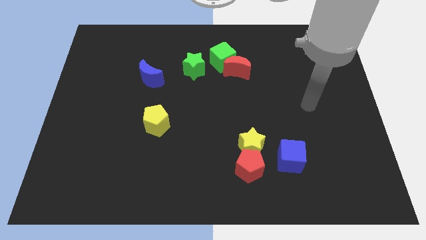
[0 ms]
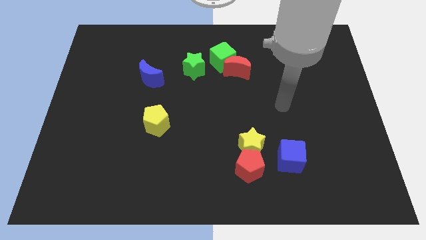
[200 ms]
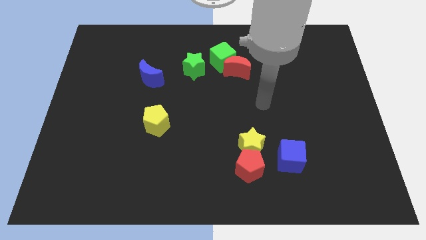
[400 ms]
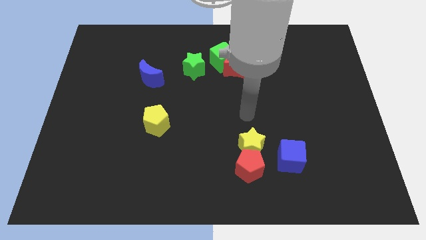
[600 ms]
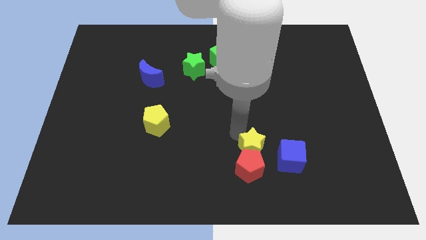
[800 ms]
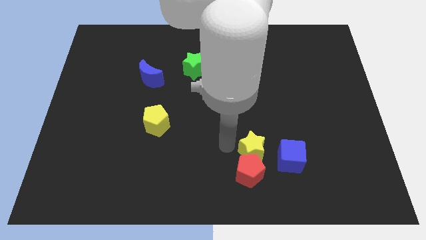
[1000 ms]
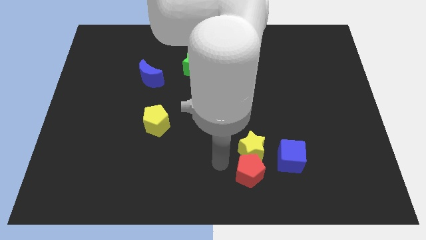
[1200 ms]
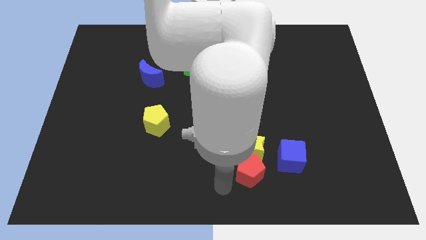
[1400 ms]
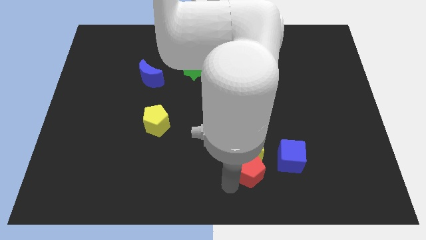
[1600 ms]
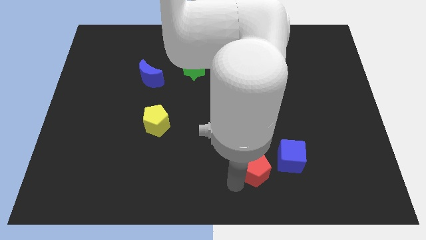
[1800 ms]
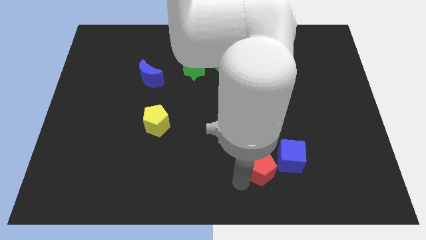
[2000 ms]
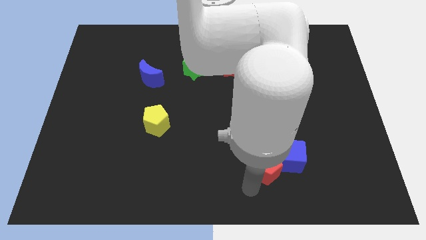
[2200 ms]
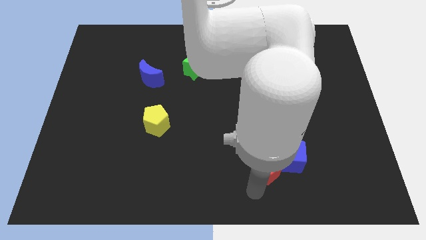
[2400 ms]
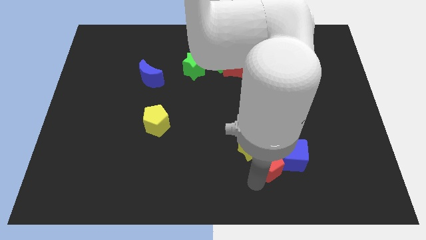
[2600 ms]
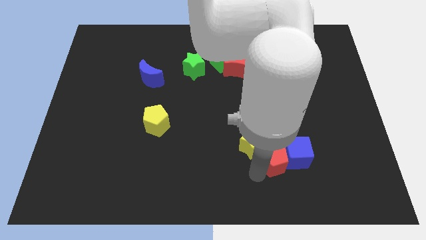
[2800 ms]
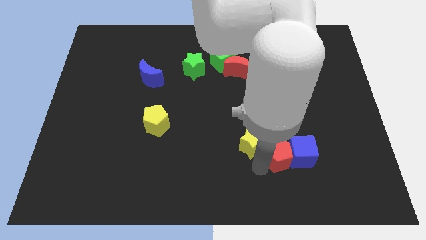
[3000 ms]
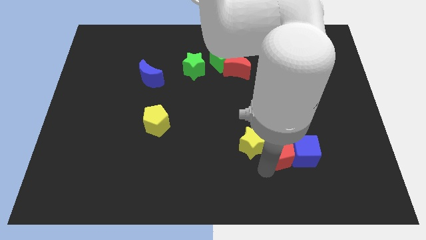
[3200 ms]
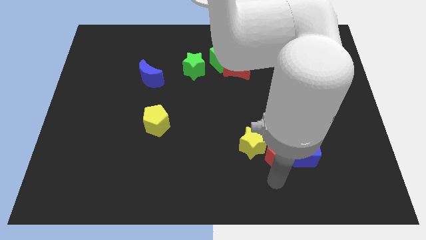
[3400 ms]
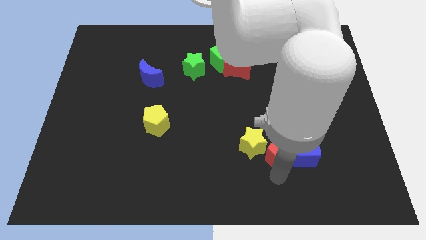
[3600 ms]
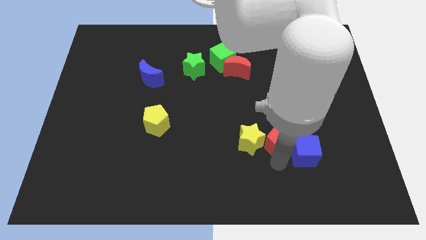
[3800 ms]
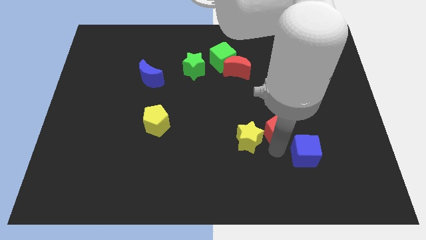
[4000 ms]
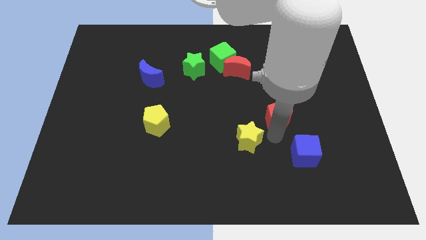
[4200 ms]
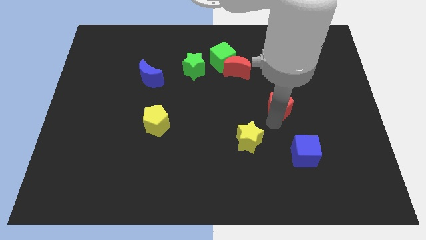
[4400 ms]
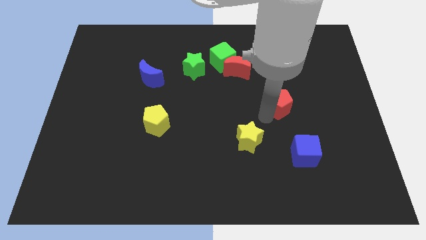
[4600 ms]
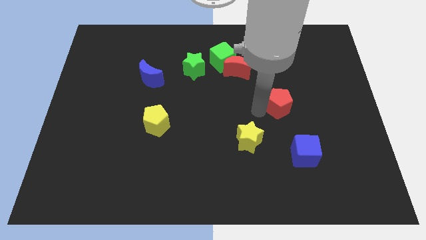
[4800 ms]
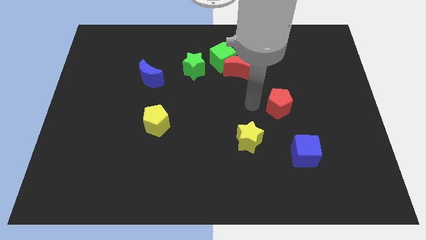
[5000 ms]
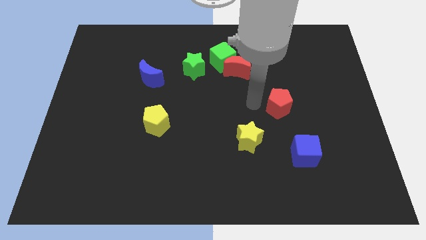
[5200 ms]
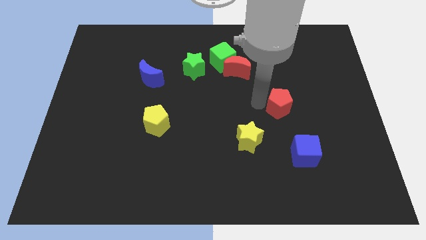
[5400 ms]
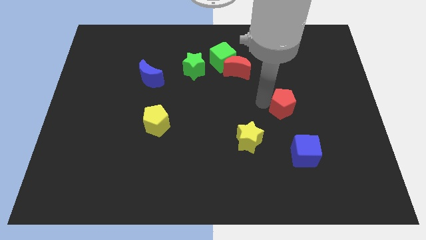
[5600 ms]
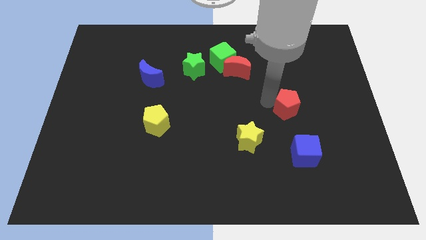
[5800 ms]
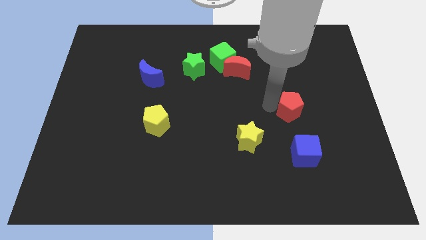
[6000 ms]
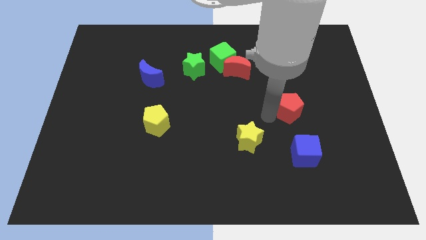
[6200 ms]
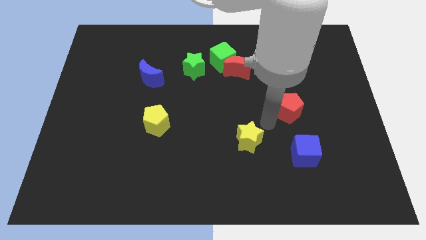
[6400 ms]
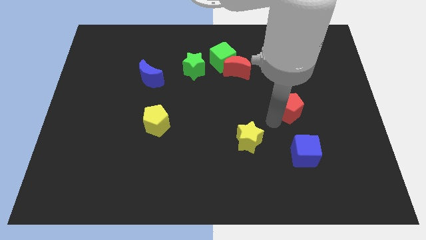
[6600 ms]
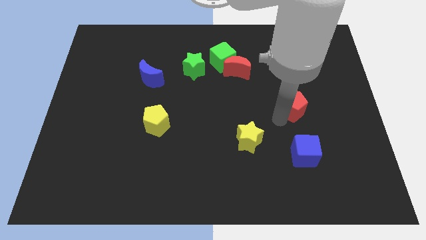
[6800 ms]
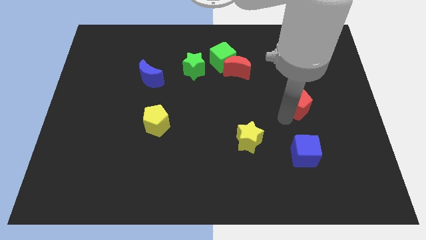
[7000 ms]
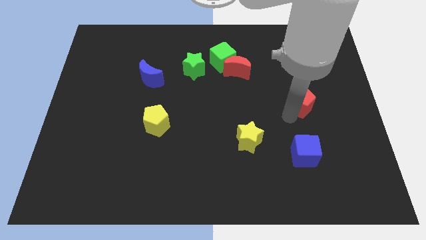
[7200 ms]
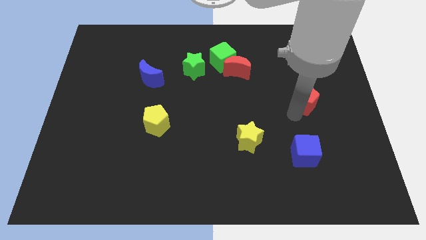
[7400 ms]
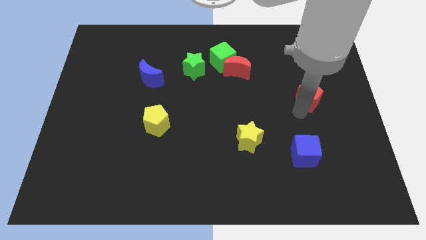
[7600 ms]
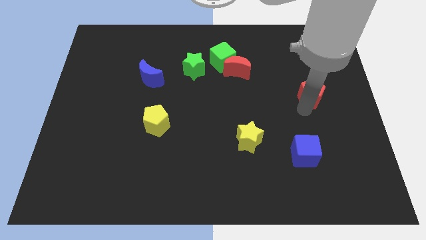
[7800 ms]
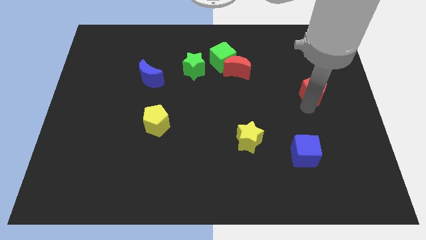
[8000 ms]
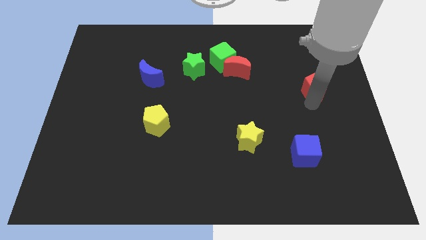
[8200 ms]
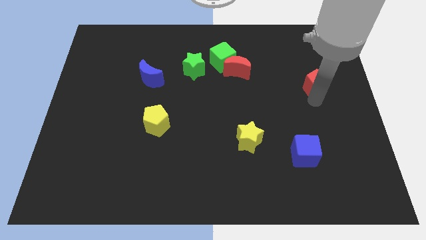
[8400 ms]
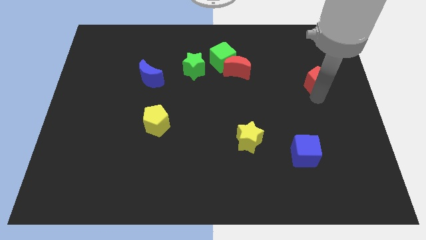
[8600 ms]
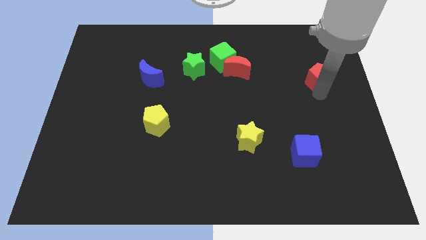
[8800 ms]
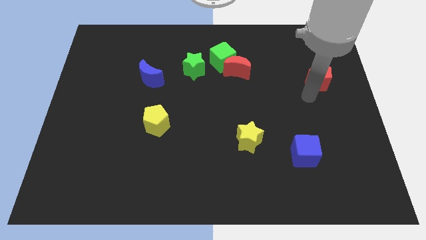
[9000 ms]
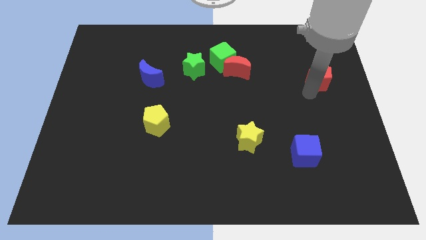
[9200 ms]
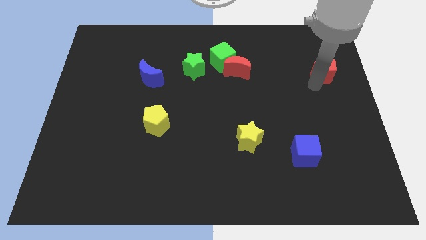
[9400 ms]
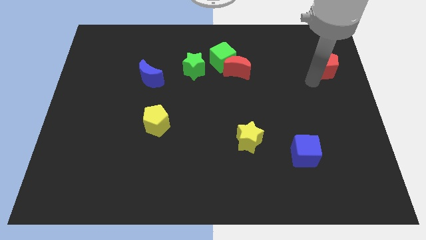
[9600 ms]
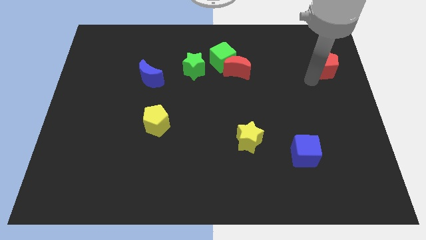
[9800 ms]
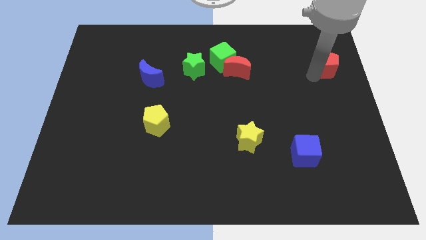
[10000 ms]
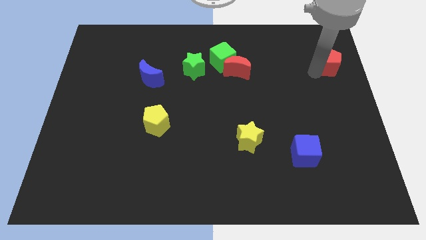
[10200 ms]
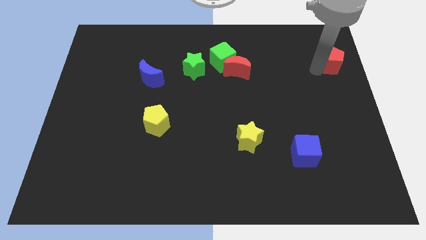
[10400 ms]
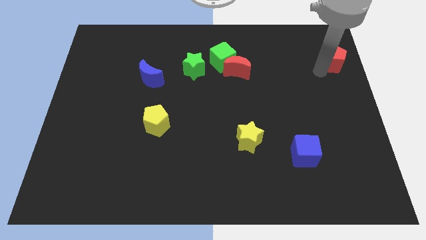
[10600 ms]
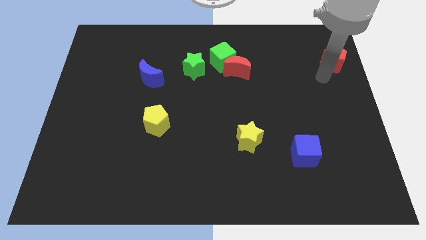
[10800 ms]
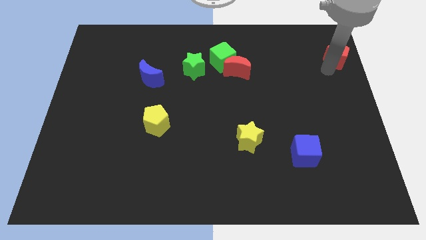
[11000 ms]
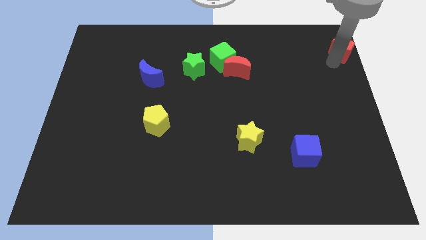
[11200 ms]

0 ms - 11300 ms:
slide the red pentagon to the top right corner

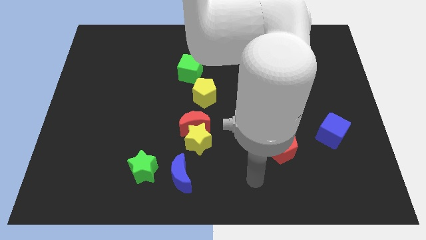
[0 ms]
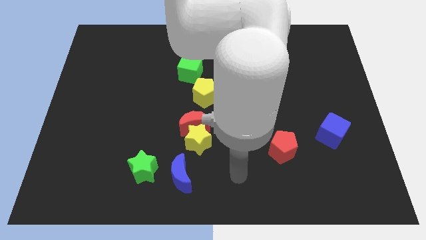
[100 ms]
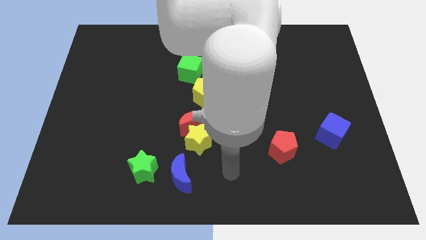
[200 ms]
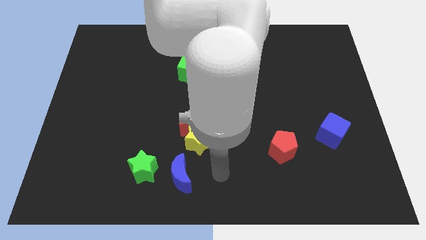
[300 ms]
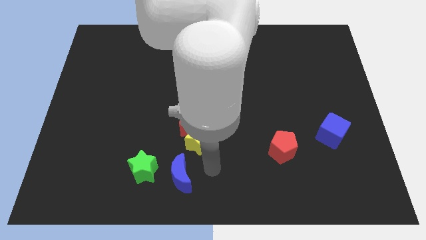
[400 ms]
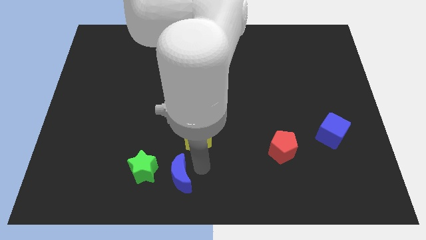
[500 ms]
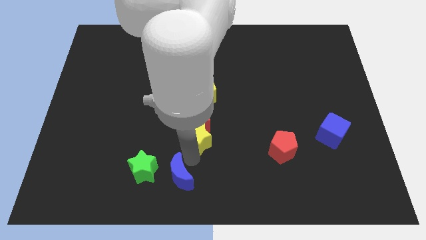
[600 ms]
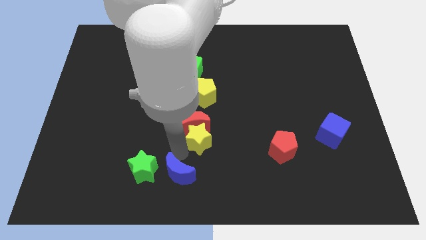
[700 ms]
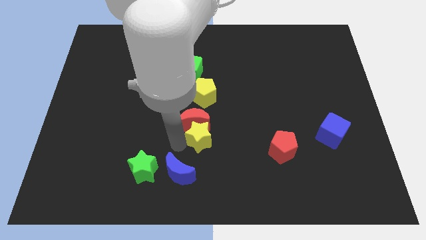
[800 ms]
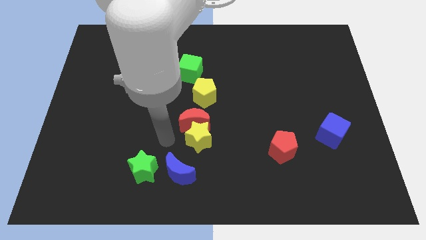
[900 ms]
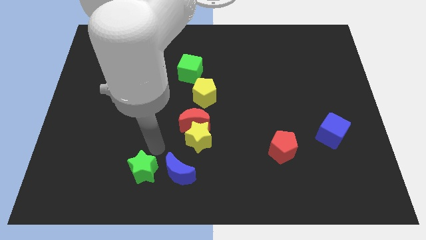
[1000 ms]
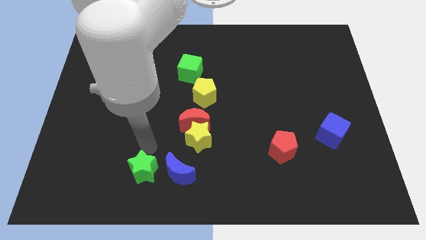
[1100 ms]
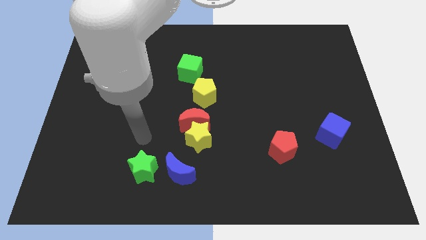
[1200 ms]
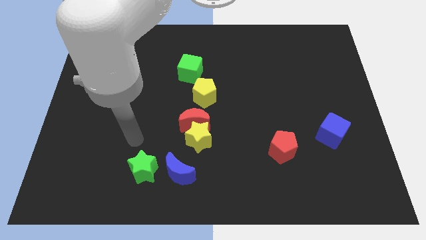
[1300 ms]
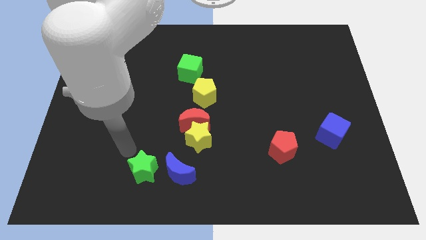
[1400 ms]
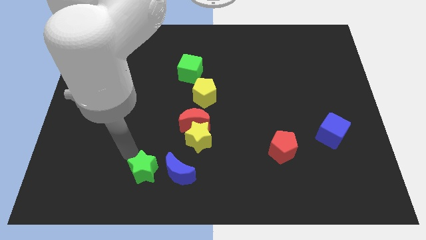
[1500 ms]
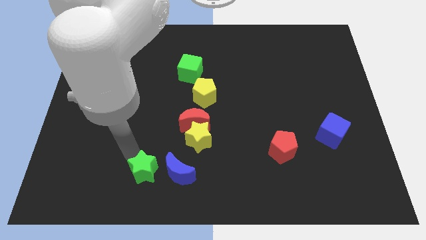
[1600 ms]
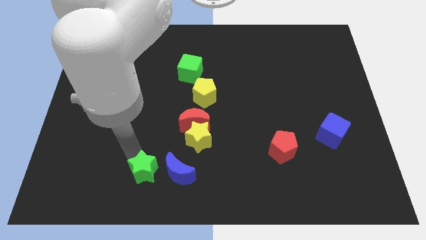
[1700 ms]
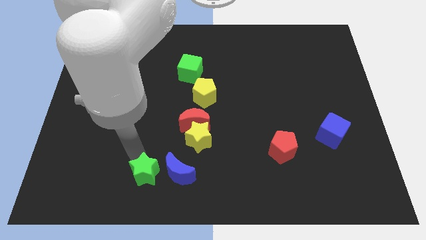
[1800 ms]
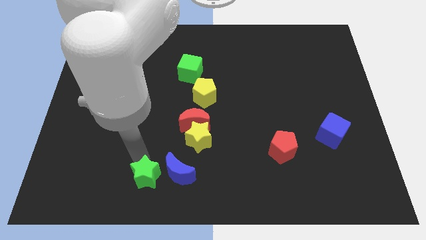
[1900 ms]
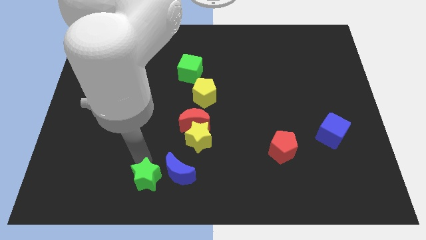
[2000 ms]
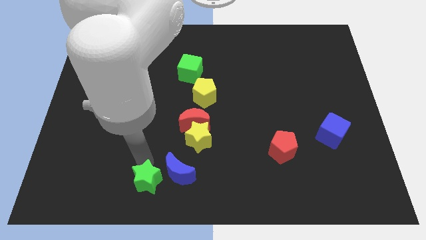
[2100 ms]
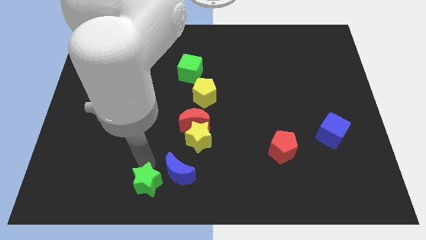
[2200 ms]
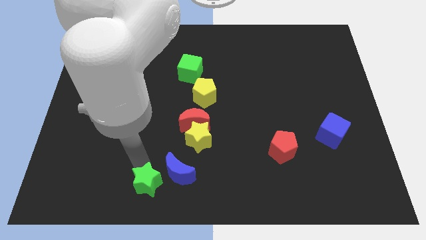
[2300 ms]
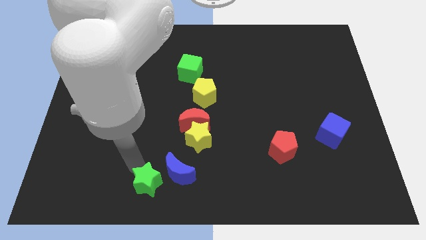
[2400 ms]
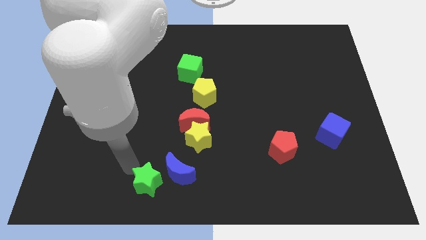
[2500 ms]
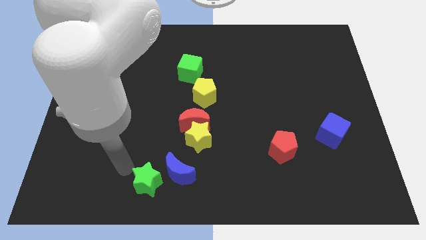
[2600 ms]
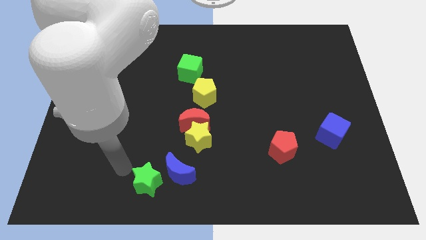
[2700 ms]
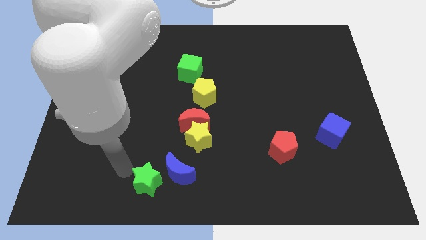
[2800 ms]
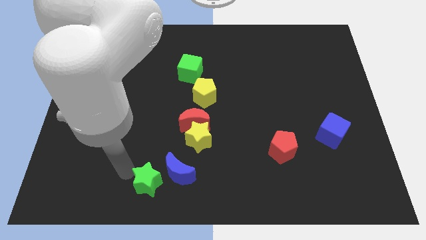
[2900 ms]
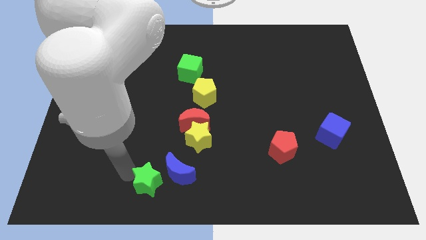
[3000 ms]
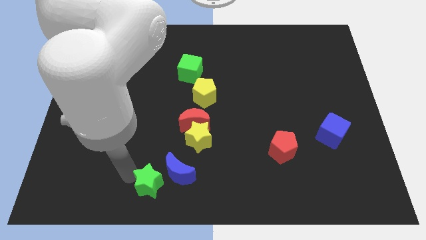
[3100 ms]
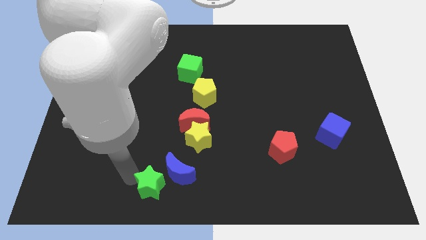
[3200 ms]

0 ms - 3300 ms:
push the green star to the bottom side
